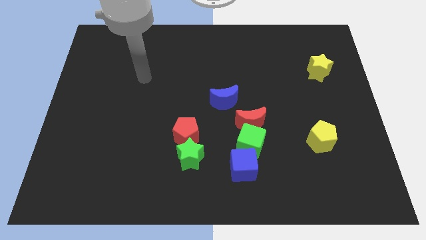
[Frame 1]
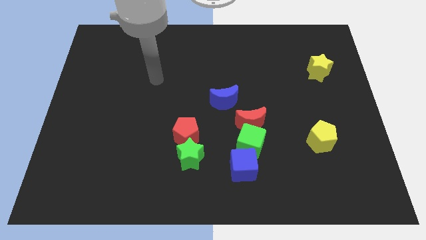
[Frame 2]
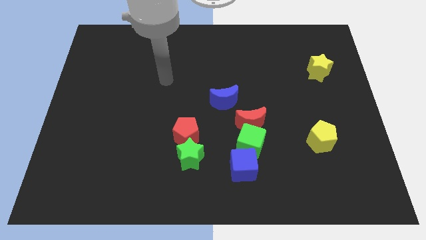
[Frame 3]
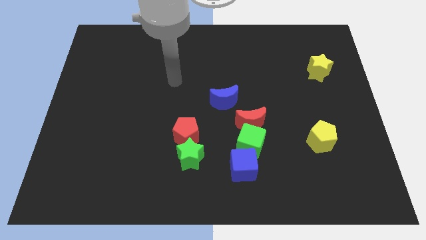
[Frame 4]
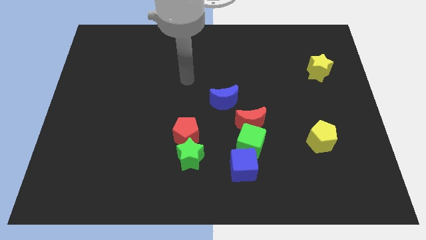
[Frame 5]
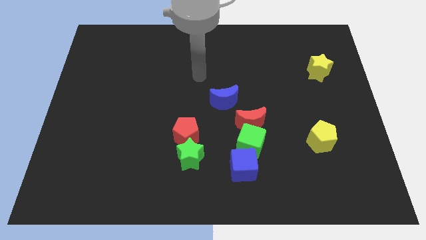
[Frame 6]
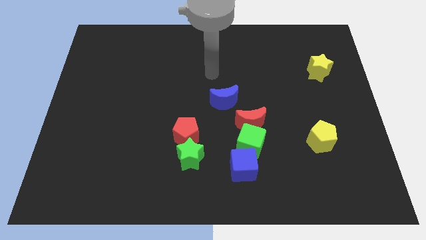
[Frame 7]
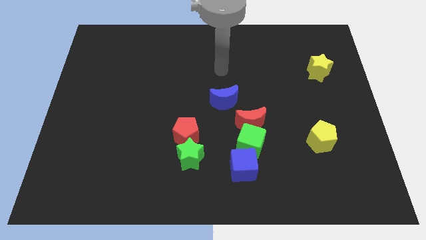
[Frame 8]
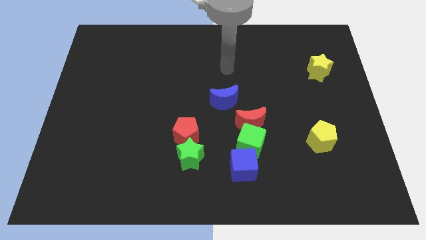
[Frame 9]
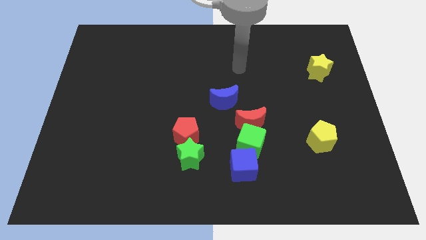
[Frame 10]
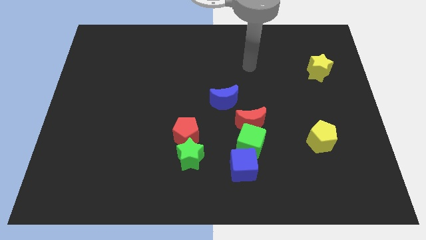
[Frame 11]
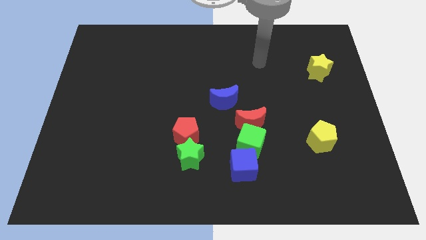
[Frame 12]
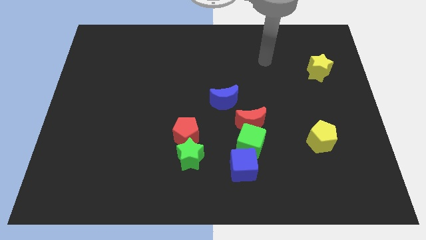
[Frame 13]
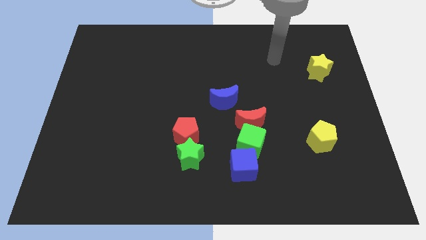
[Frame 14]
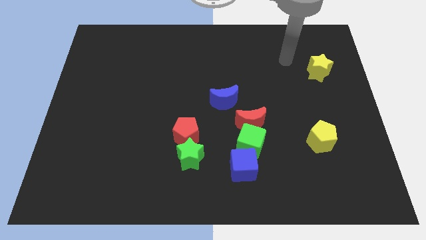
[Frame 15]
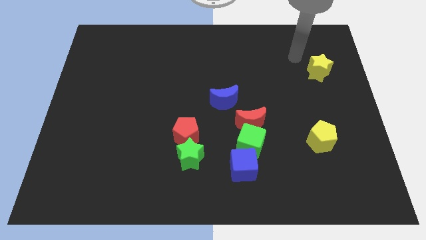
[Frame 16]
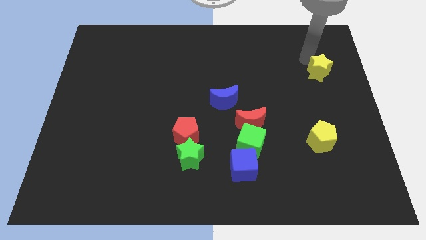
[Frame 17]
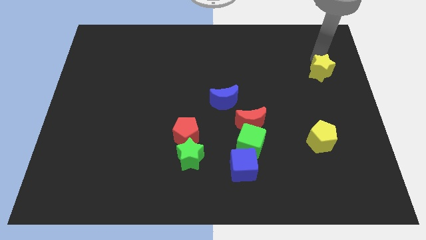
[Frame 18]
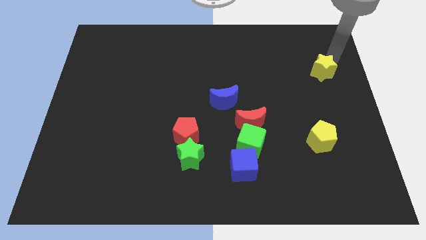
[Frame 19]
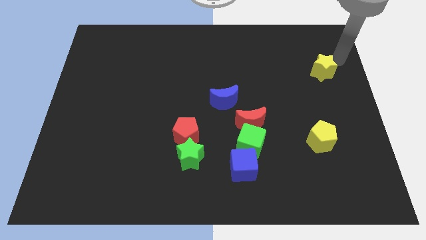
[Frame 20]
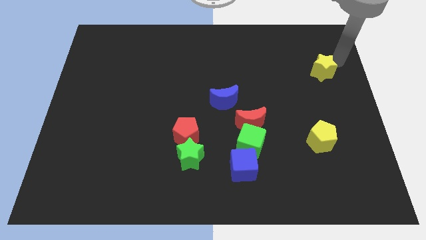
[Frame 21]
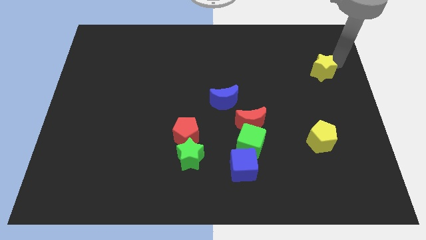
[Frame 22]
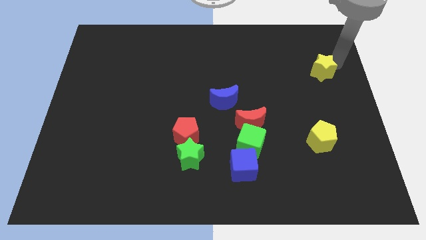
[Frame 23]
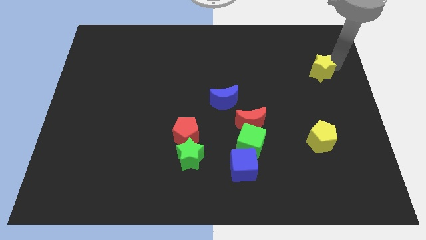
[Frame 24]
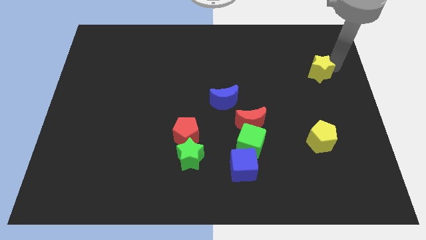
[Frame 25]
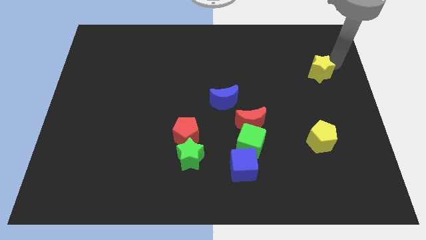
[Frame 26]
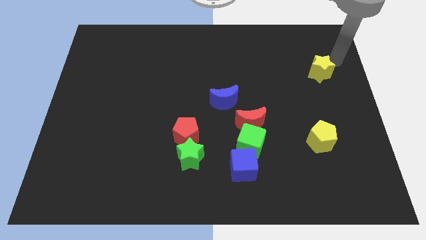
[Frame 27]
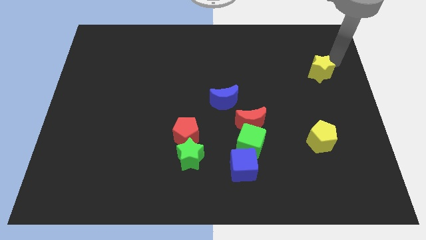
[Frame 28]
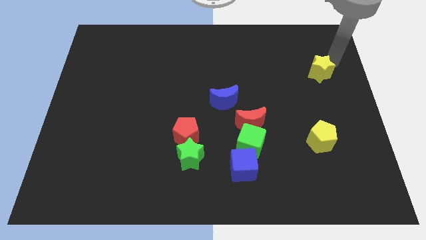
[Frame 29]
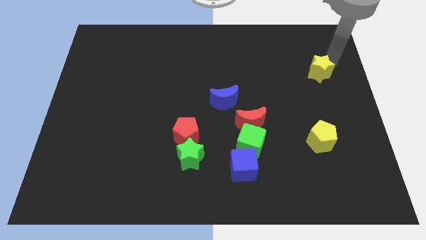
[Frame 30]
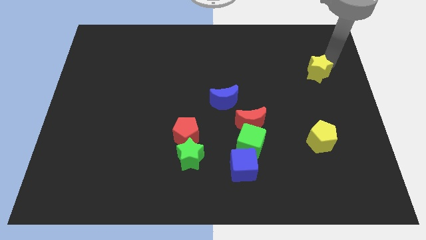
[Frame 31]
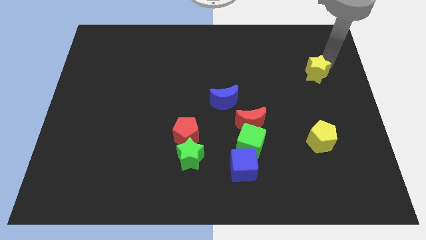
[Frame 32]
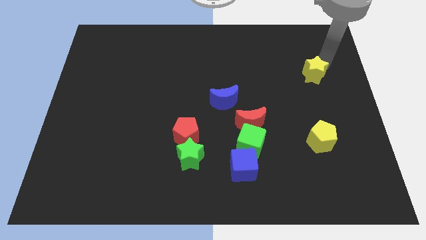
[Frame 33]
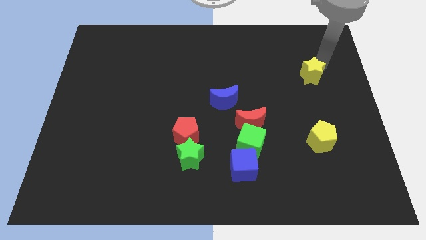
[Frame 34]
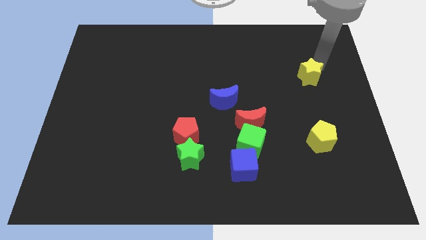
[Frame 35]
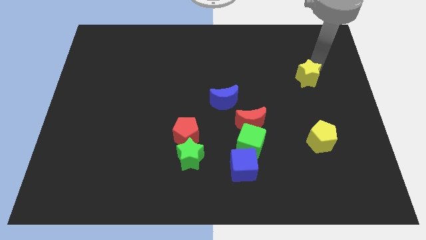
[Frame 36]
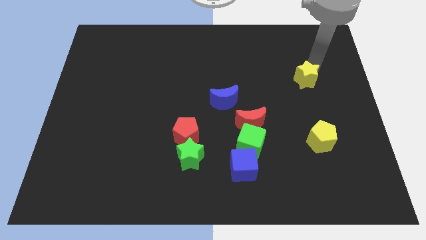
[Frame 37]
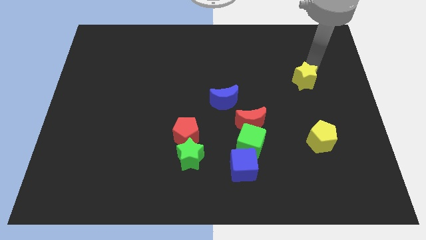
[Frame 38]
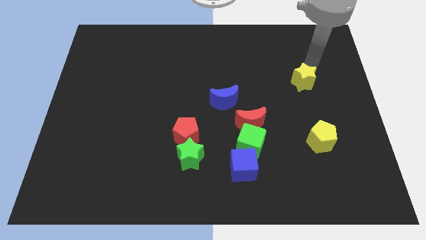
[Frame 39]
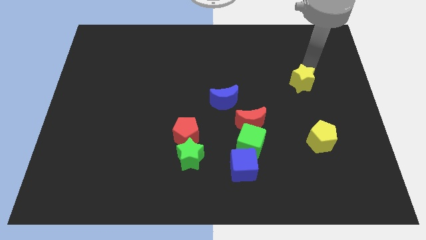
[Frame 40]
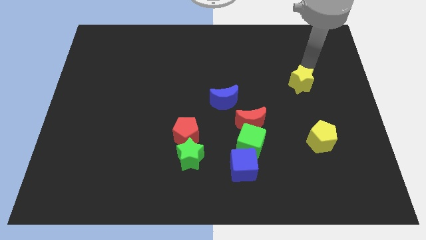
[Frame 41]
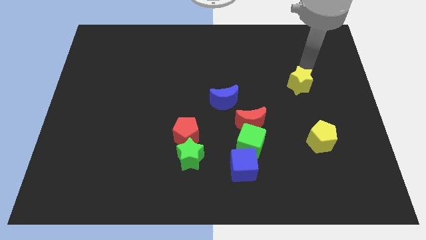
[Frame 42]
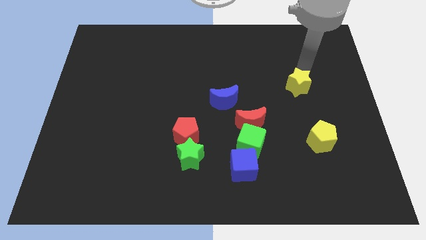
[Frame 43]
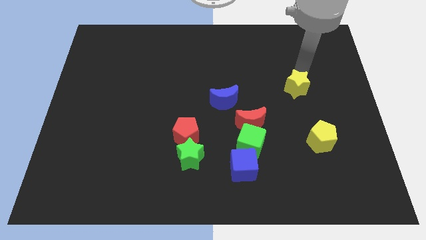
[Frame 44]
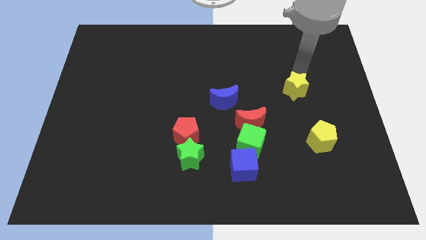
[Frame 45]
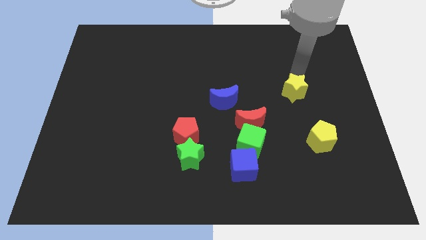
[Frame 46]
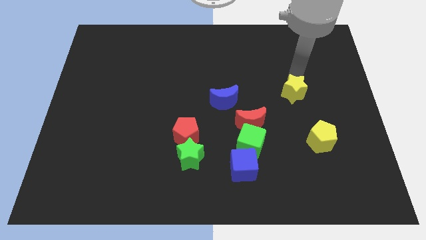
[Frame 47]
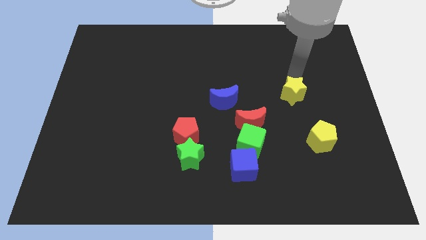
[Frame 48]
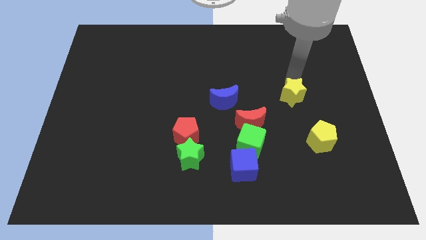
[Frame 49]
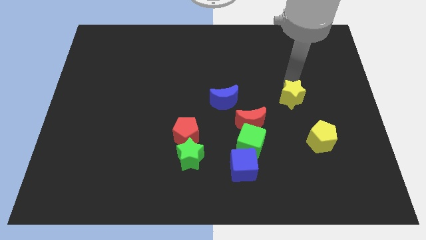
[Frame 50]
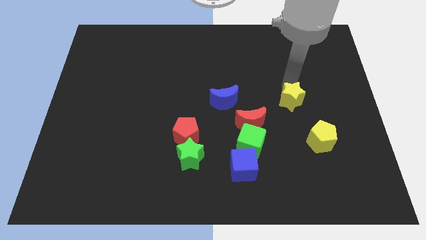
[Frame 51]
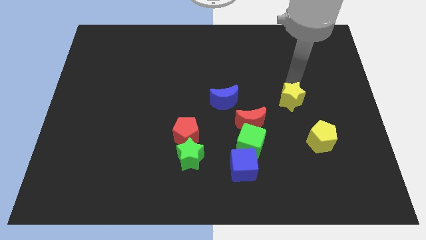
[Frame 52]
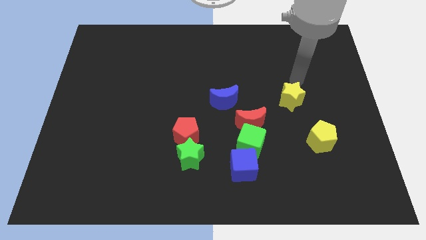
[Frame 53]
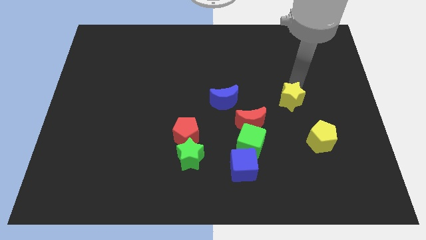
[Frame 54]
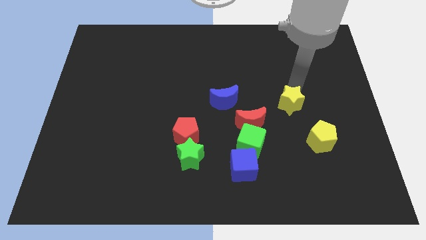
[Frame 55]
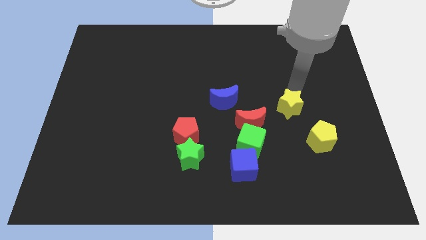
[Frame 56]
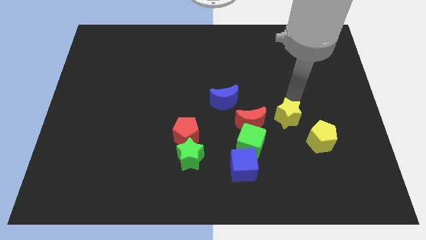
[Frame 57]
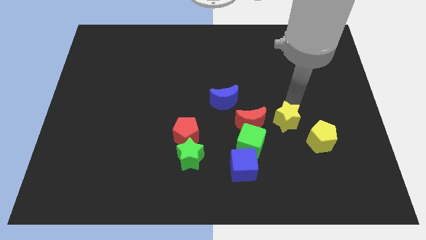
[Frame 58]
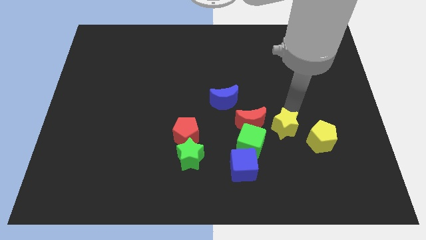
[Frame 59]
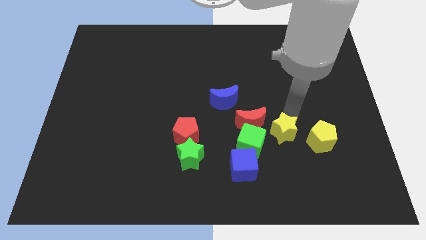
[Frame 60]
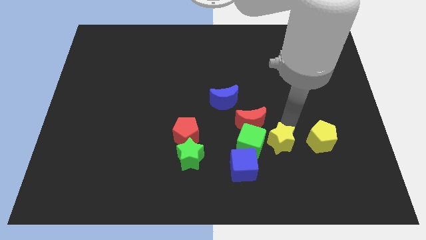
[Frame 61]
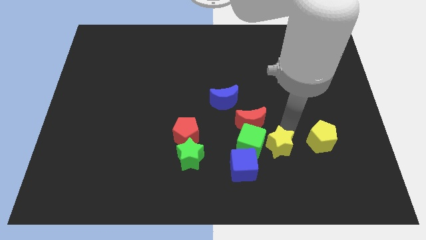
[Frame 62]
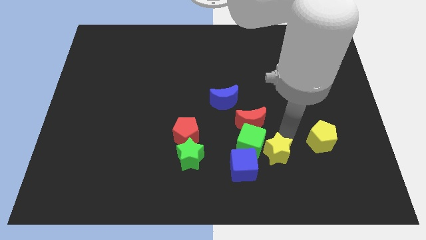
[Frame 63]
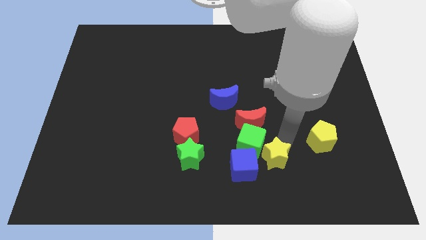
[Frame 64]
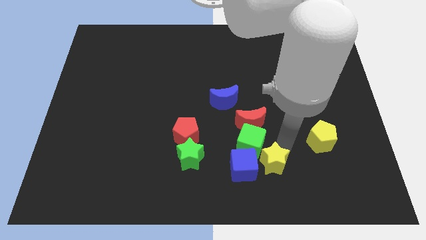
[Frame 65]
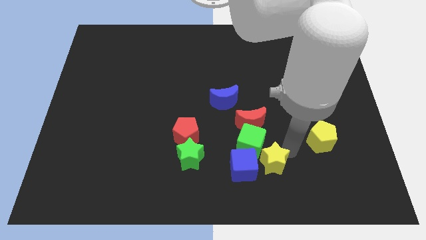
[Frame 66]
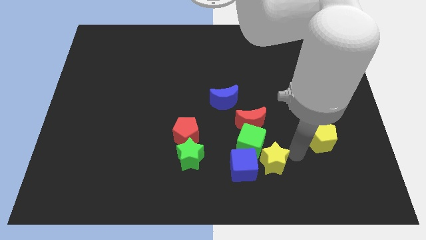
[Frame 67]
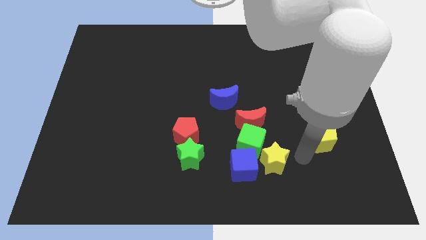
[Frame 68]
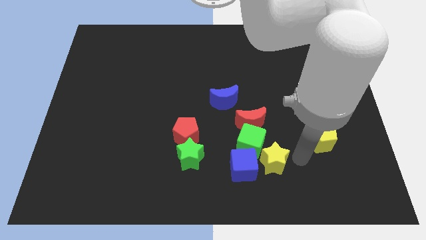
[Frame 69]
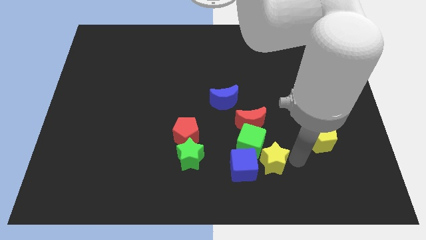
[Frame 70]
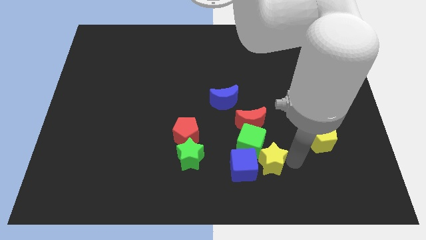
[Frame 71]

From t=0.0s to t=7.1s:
put the yellow star to the blue cube
